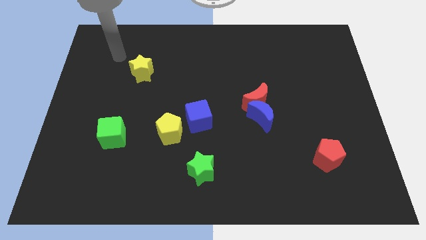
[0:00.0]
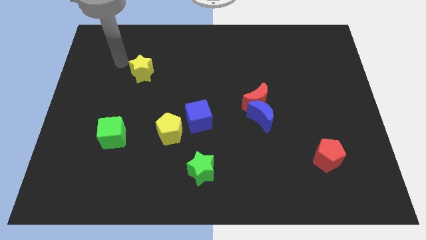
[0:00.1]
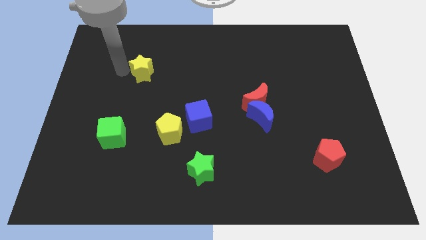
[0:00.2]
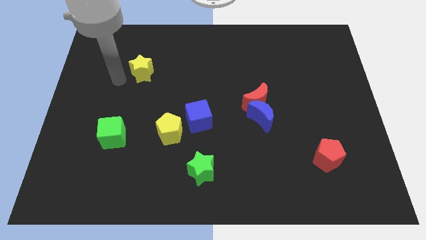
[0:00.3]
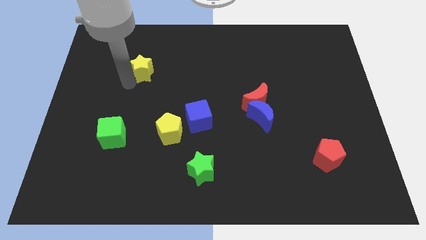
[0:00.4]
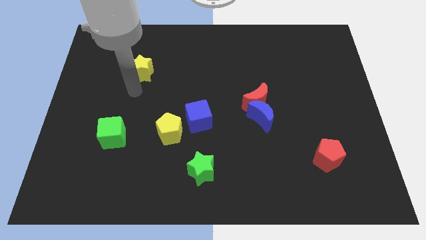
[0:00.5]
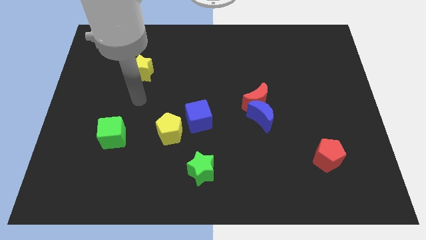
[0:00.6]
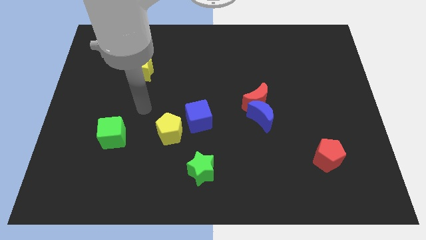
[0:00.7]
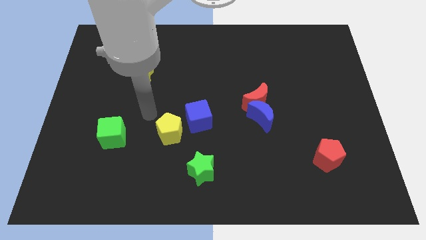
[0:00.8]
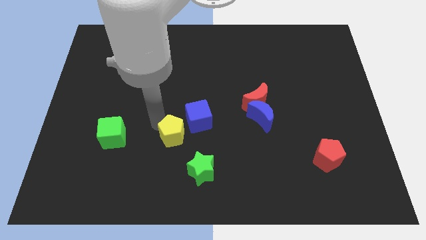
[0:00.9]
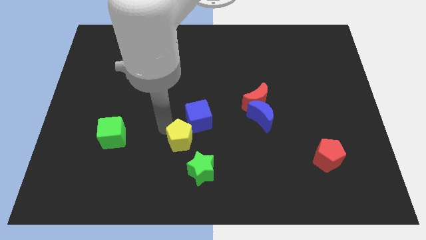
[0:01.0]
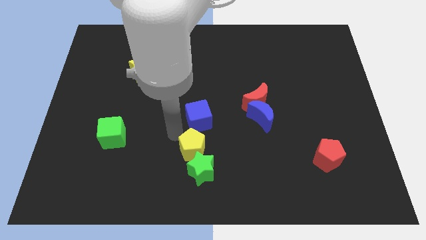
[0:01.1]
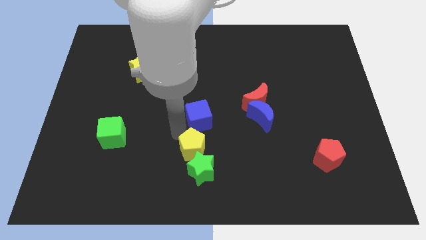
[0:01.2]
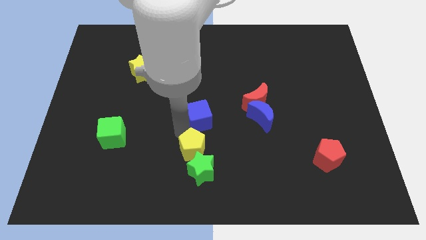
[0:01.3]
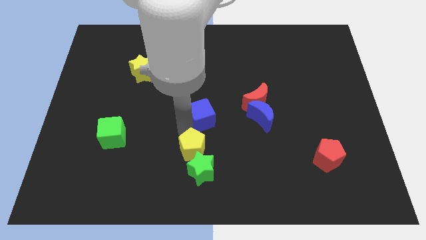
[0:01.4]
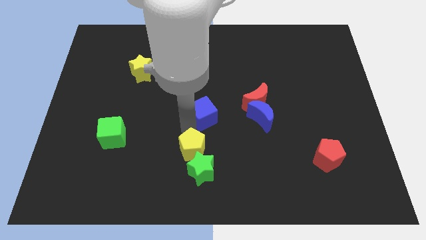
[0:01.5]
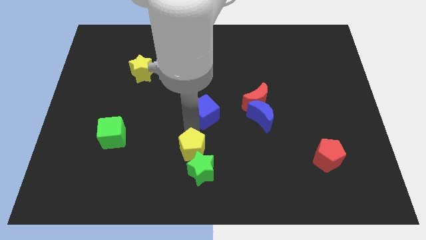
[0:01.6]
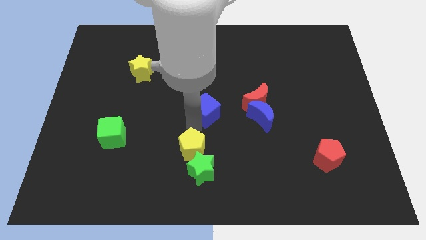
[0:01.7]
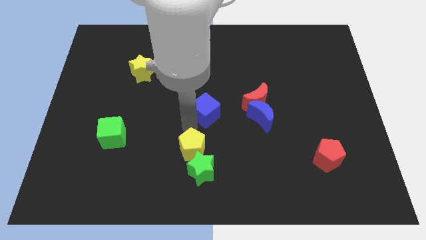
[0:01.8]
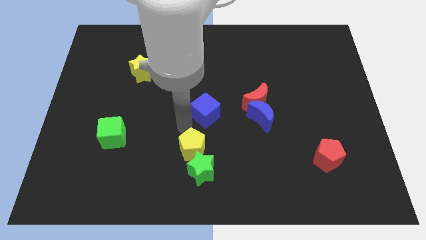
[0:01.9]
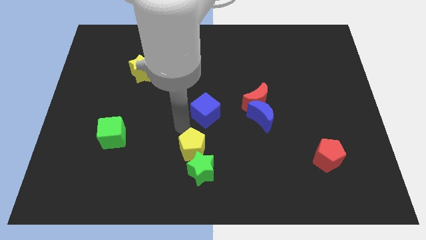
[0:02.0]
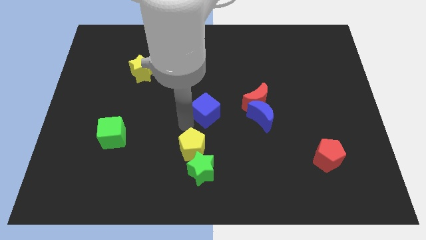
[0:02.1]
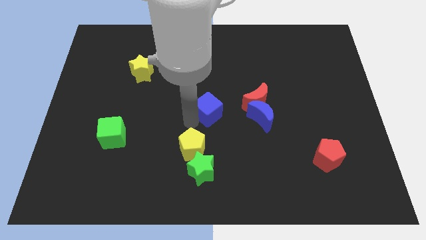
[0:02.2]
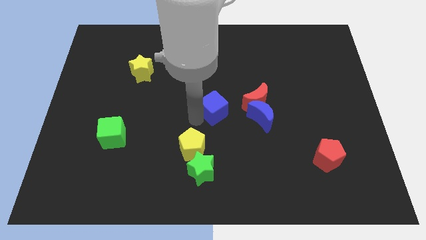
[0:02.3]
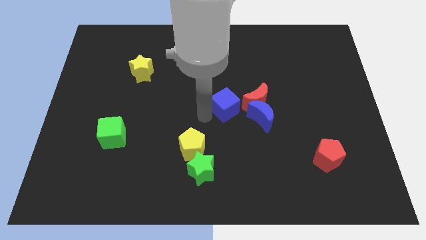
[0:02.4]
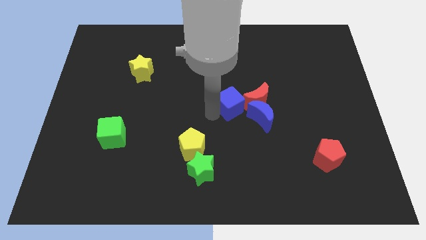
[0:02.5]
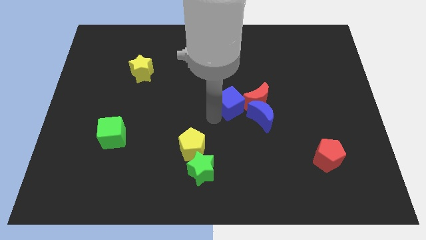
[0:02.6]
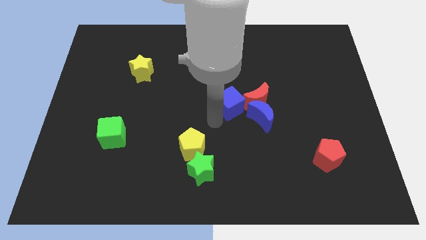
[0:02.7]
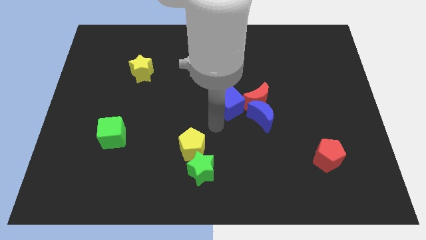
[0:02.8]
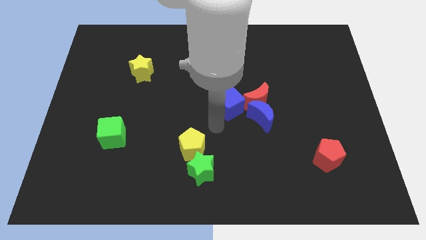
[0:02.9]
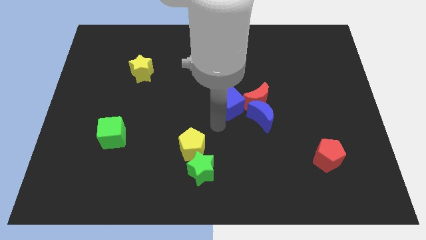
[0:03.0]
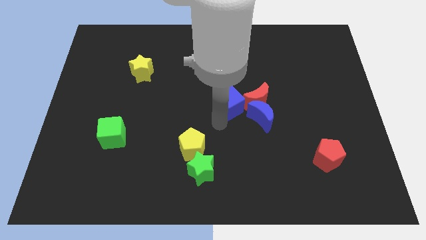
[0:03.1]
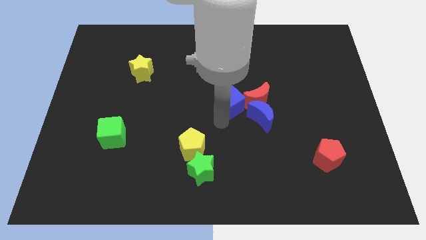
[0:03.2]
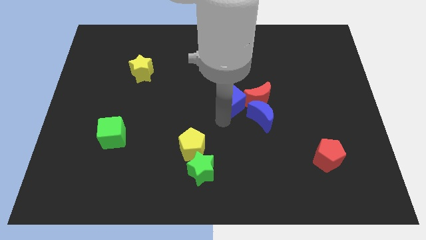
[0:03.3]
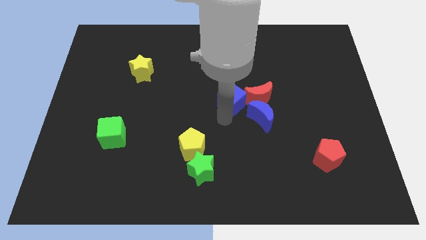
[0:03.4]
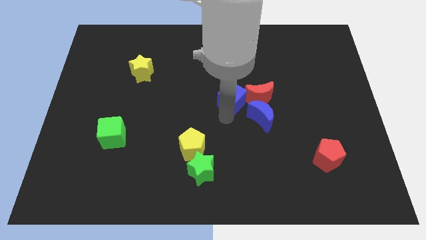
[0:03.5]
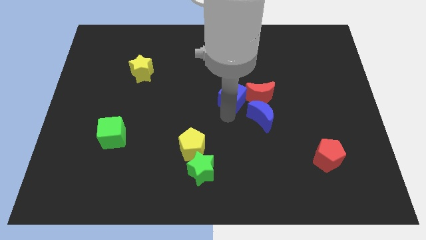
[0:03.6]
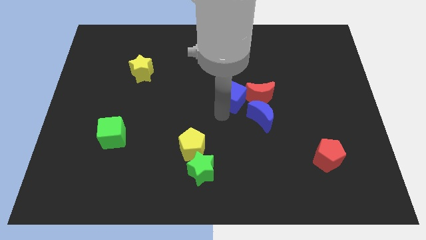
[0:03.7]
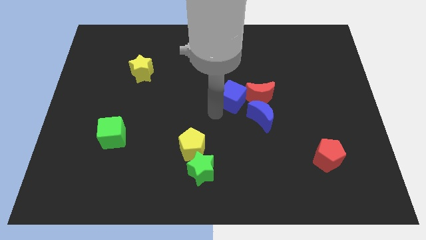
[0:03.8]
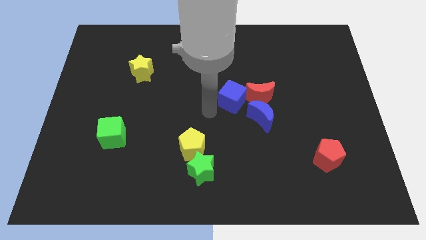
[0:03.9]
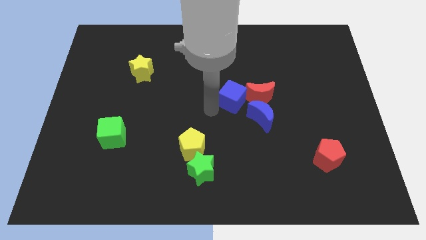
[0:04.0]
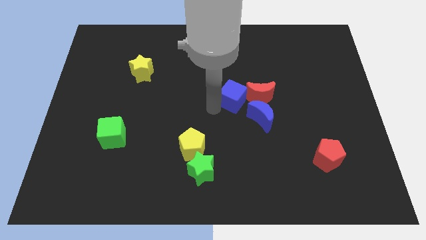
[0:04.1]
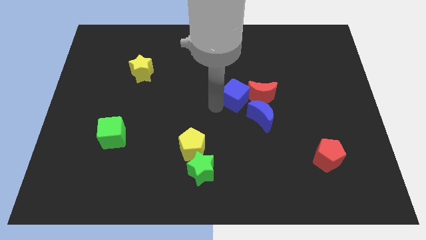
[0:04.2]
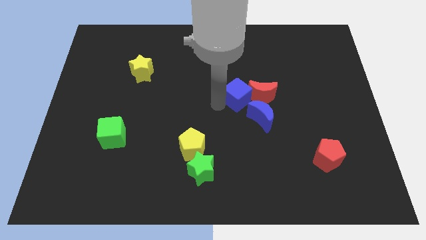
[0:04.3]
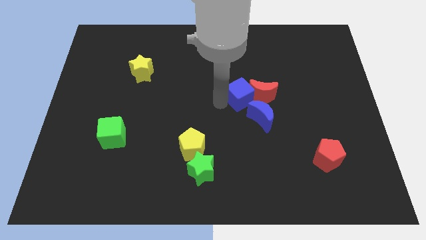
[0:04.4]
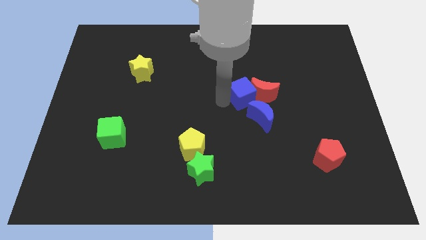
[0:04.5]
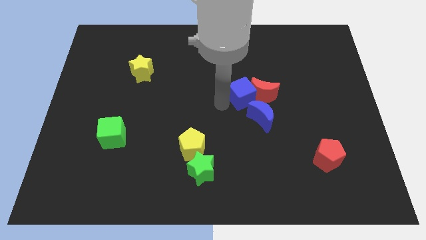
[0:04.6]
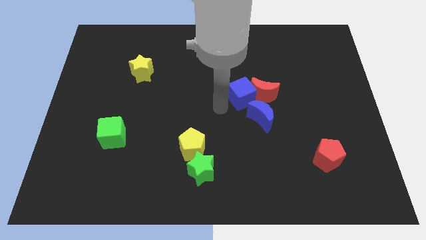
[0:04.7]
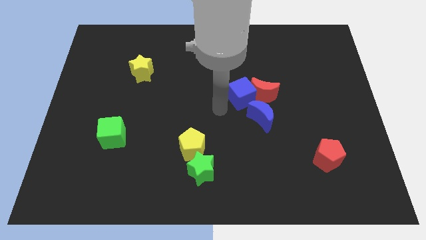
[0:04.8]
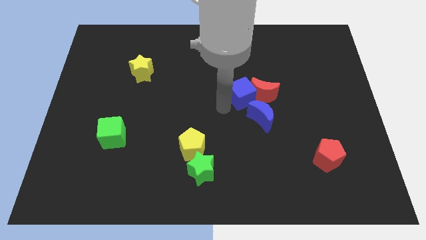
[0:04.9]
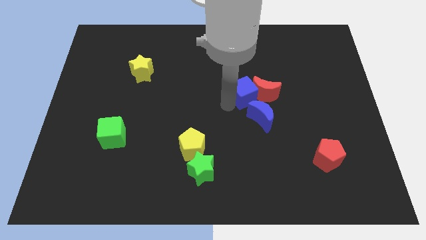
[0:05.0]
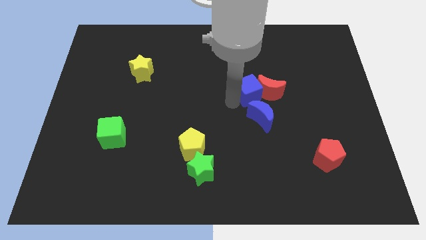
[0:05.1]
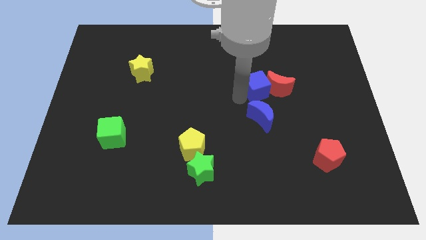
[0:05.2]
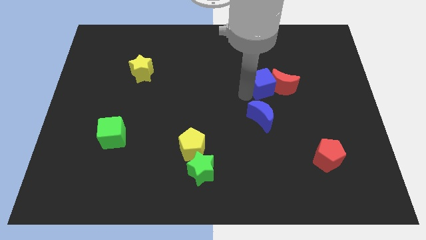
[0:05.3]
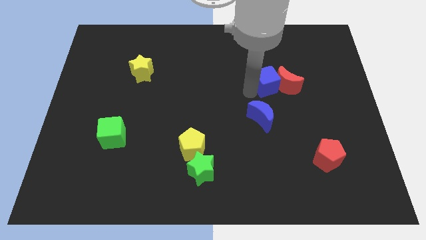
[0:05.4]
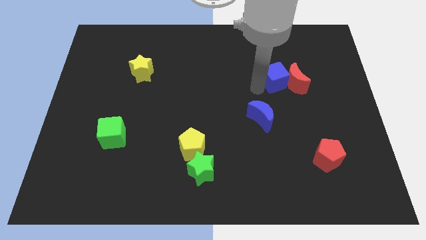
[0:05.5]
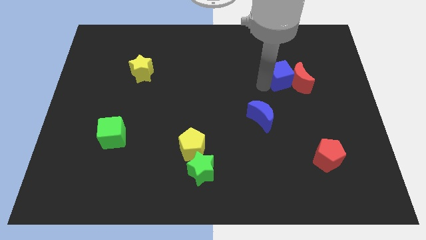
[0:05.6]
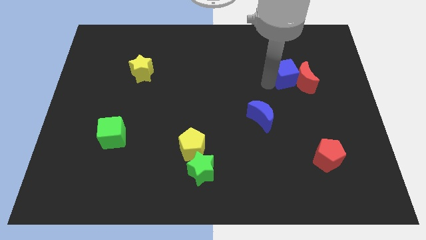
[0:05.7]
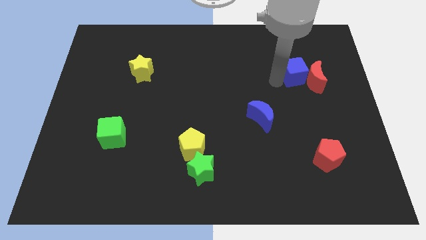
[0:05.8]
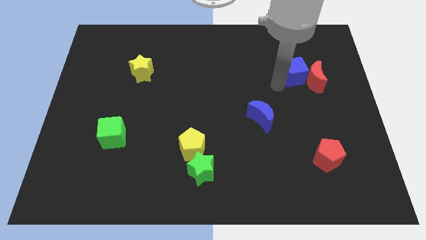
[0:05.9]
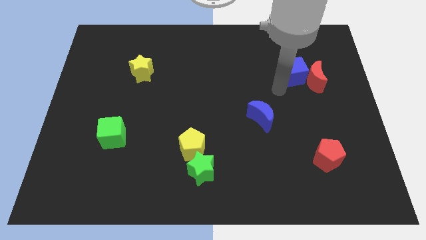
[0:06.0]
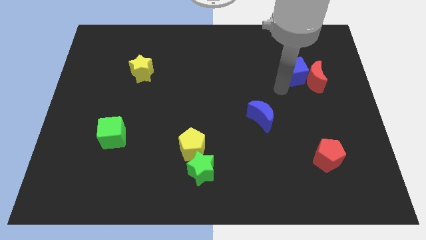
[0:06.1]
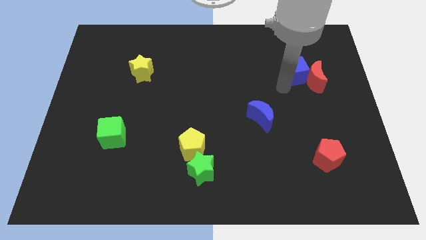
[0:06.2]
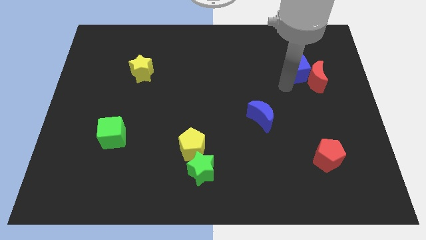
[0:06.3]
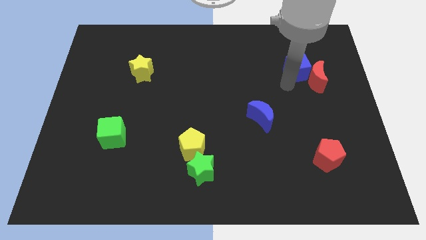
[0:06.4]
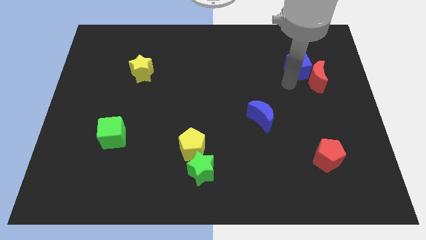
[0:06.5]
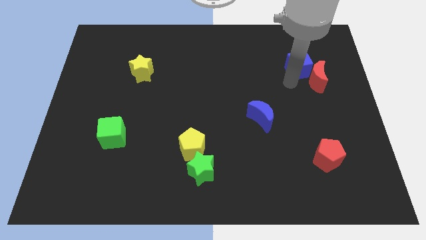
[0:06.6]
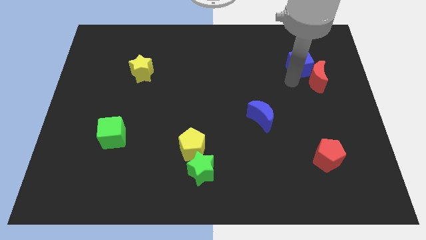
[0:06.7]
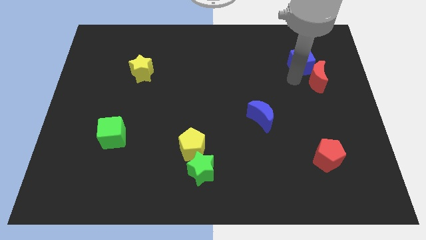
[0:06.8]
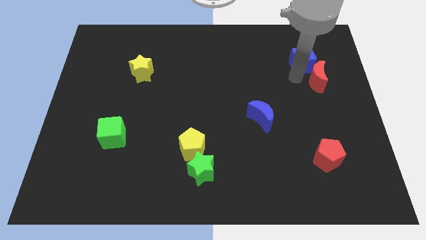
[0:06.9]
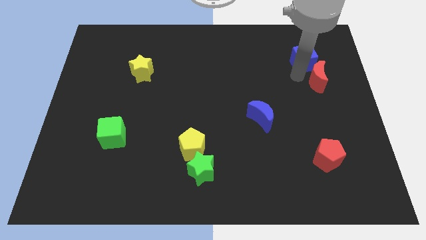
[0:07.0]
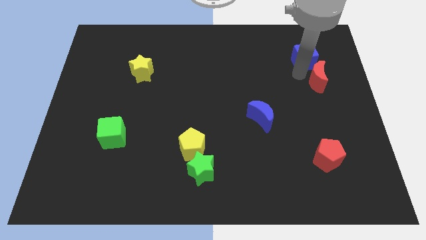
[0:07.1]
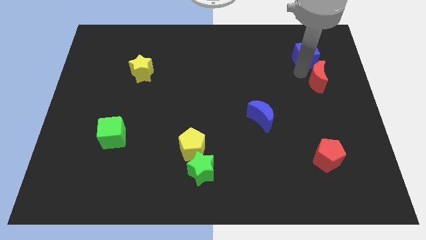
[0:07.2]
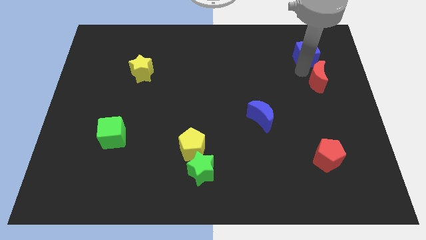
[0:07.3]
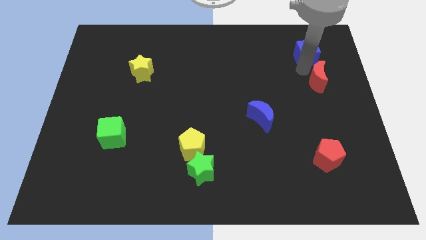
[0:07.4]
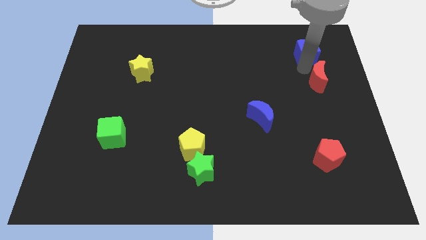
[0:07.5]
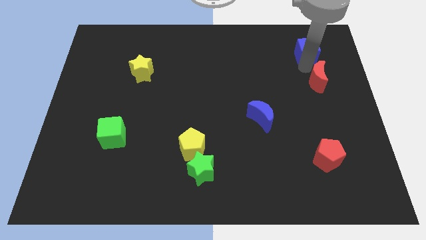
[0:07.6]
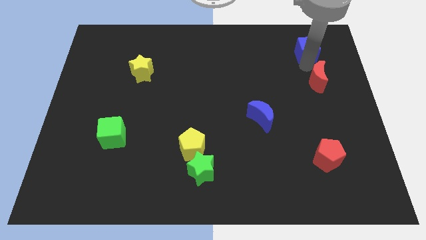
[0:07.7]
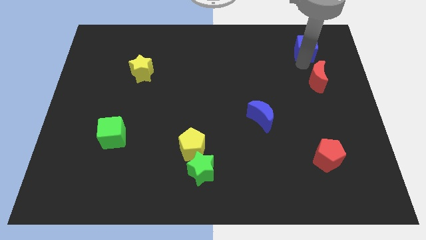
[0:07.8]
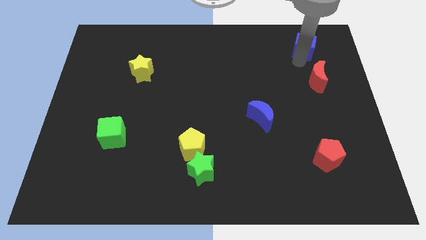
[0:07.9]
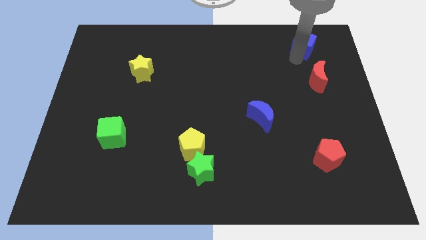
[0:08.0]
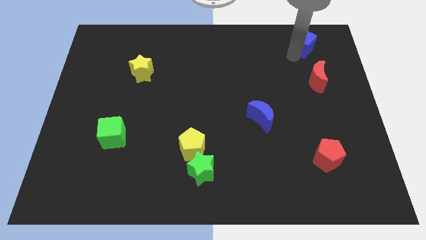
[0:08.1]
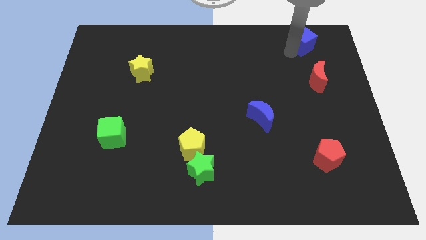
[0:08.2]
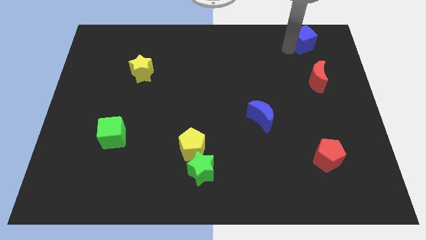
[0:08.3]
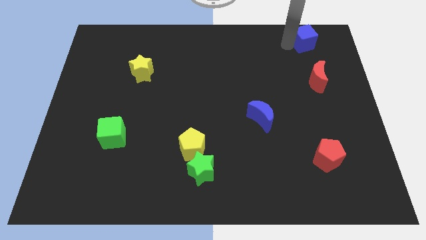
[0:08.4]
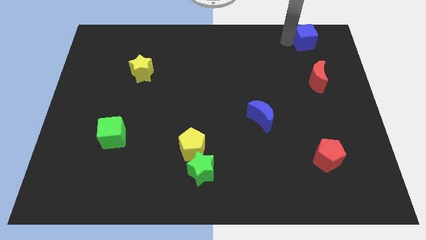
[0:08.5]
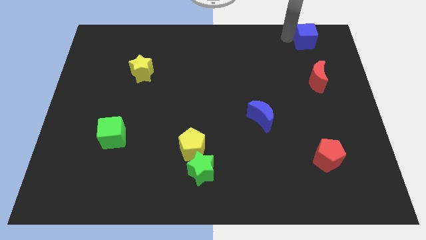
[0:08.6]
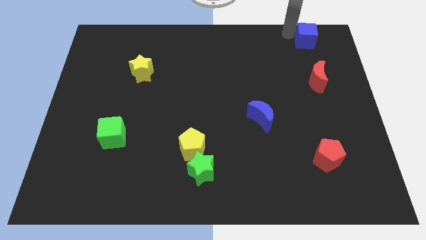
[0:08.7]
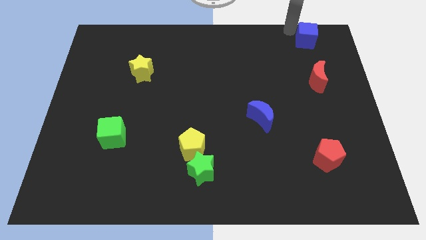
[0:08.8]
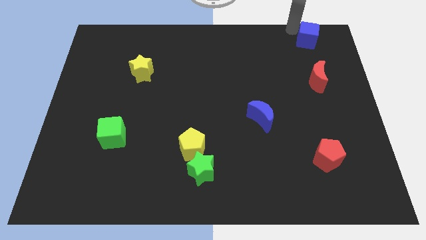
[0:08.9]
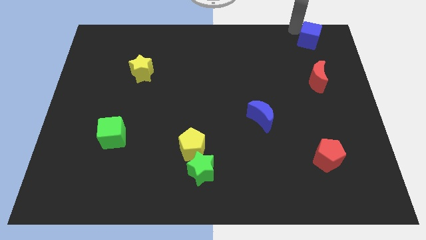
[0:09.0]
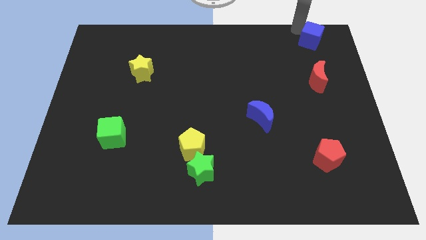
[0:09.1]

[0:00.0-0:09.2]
slide the blue cube to the top right corner
